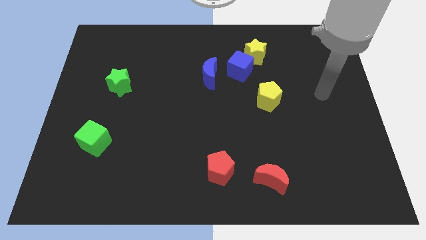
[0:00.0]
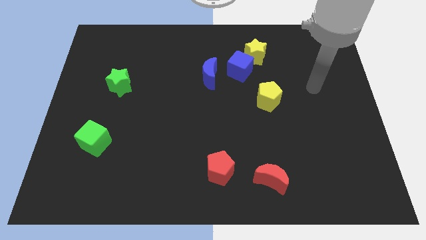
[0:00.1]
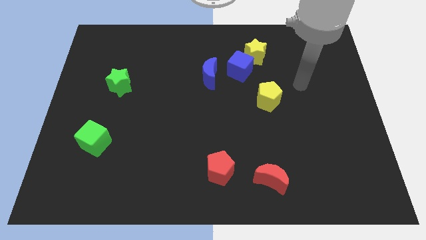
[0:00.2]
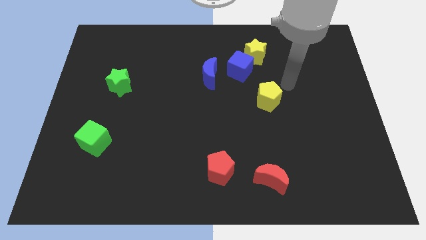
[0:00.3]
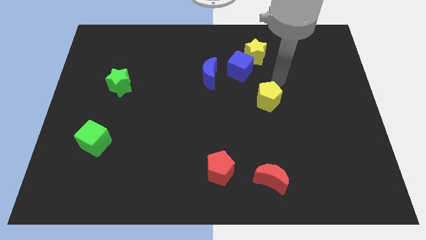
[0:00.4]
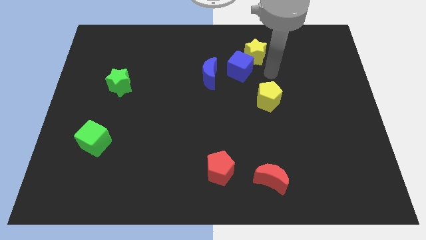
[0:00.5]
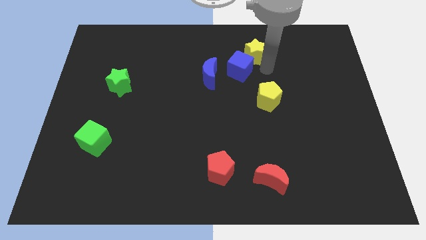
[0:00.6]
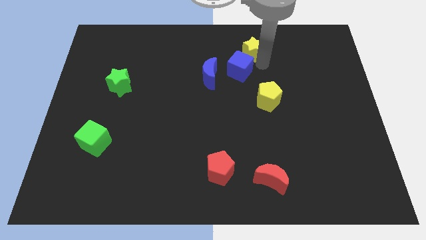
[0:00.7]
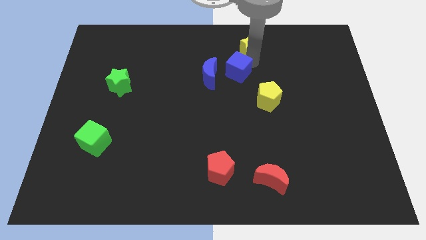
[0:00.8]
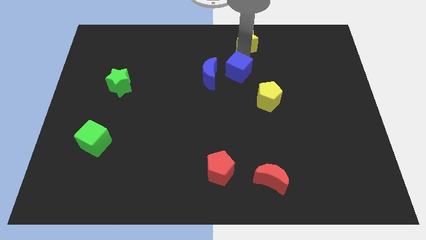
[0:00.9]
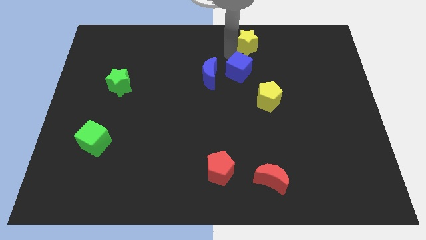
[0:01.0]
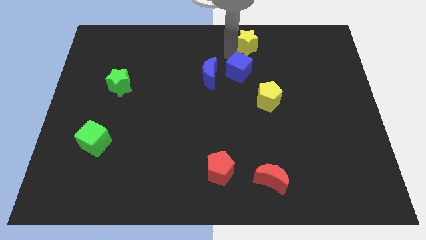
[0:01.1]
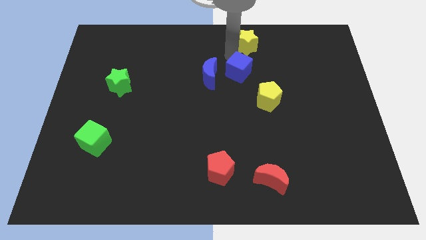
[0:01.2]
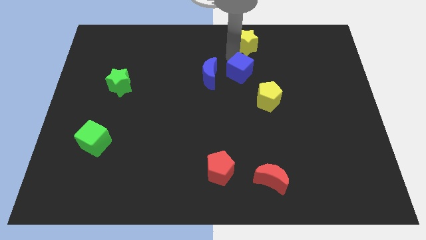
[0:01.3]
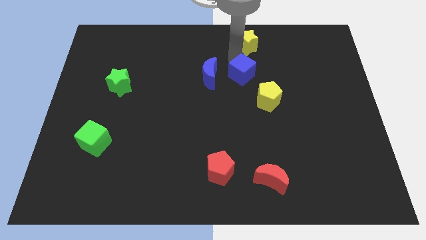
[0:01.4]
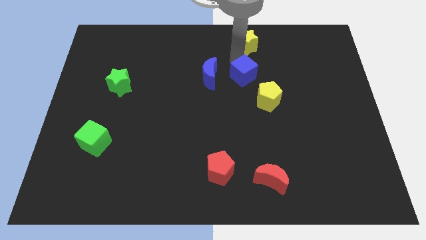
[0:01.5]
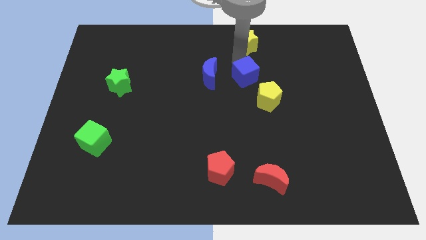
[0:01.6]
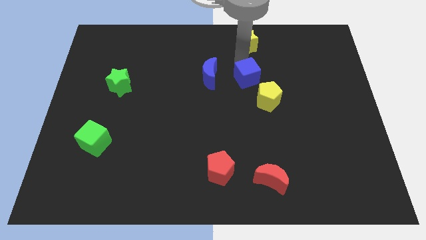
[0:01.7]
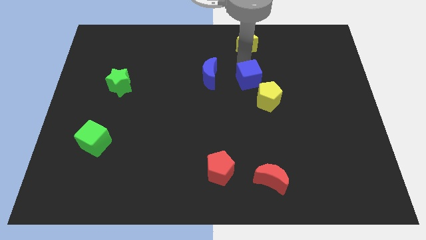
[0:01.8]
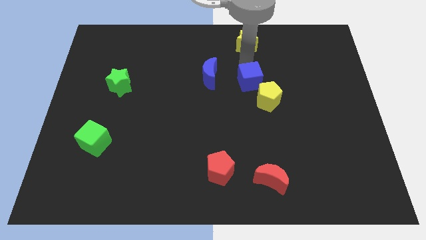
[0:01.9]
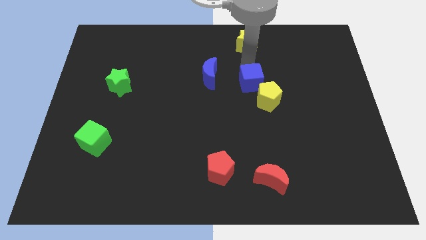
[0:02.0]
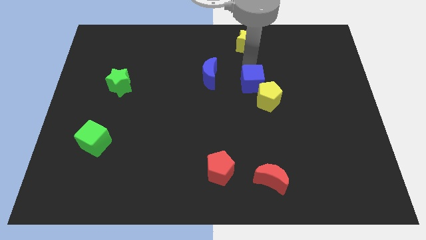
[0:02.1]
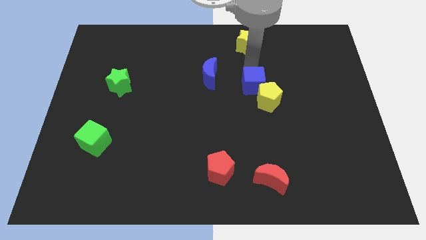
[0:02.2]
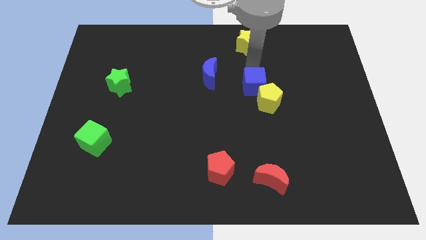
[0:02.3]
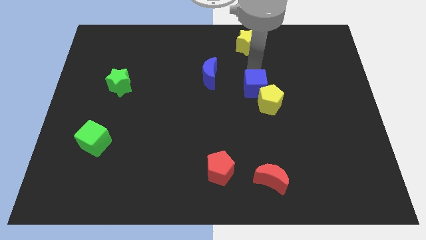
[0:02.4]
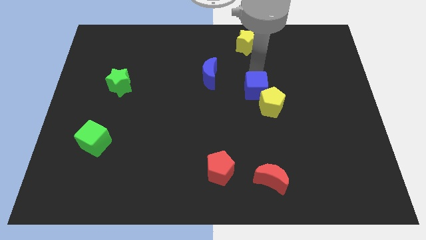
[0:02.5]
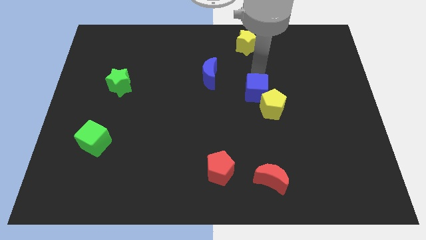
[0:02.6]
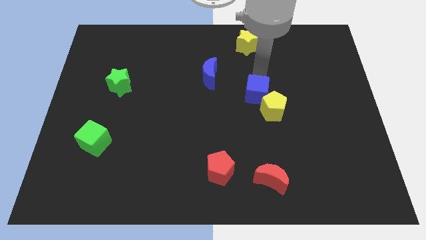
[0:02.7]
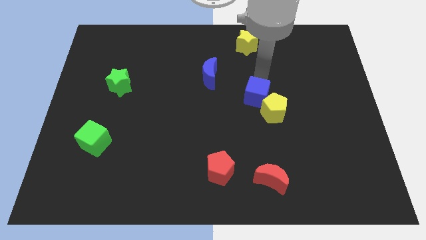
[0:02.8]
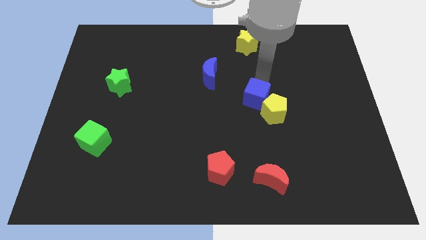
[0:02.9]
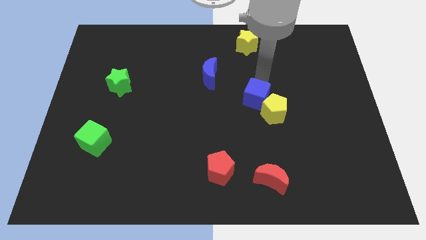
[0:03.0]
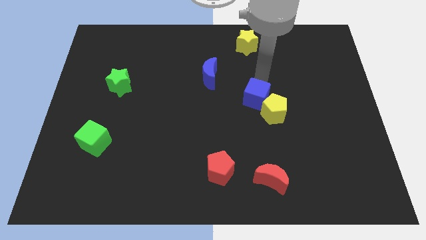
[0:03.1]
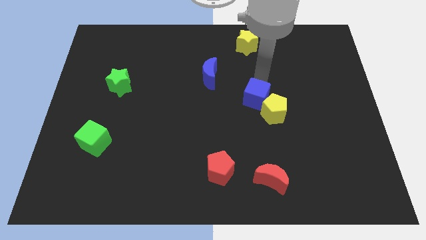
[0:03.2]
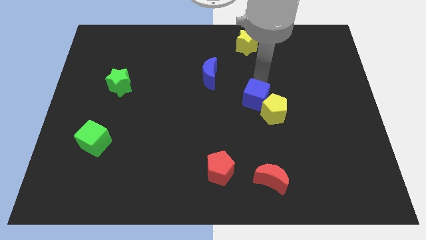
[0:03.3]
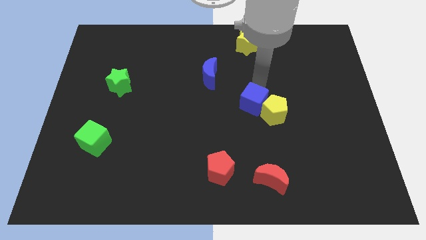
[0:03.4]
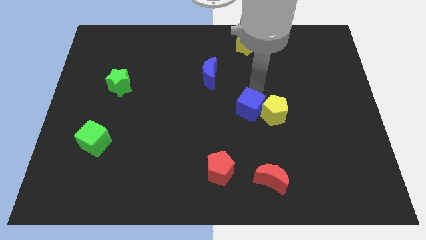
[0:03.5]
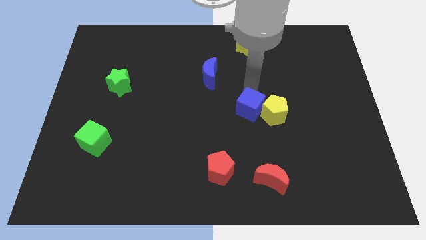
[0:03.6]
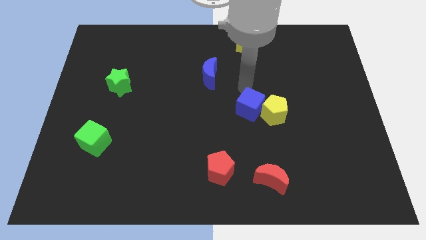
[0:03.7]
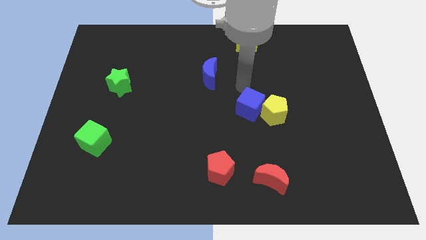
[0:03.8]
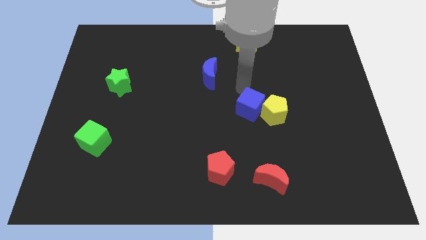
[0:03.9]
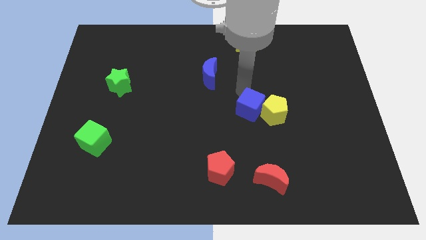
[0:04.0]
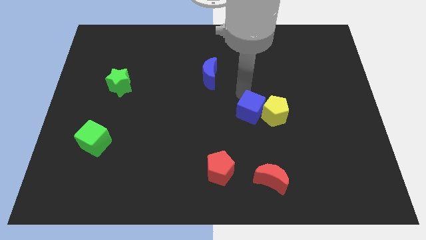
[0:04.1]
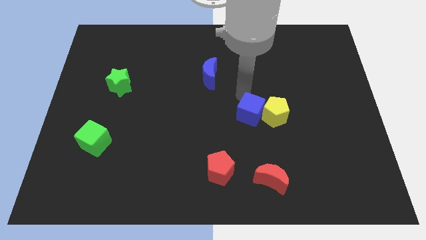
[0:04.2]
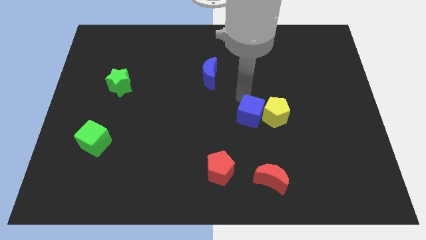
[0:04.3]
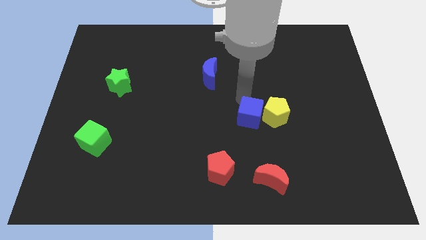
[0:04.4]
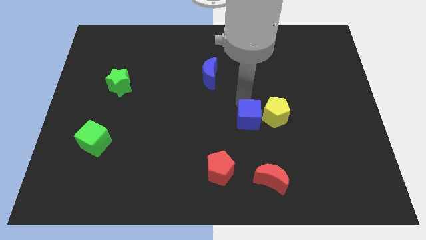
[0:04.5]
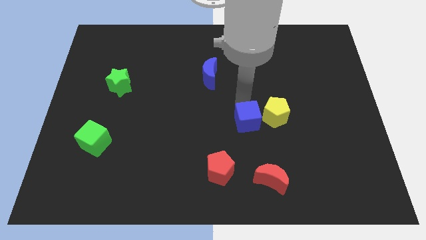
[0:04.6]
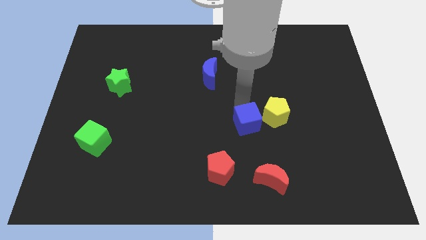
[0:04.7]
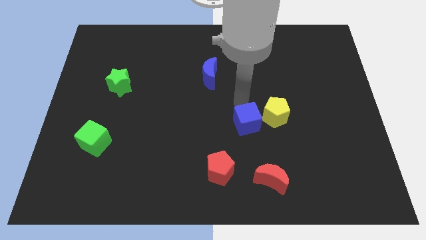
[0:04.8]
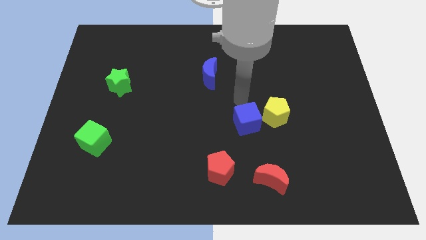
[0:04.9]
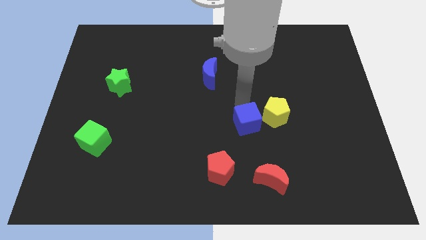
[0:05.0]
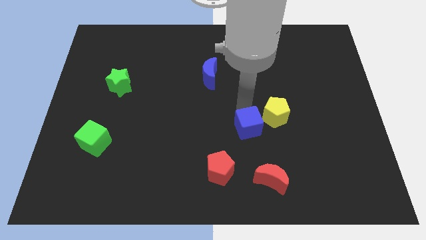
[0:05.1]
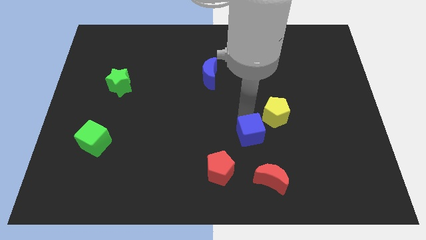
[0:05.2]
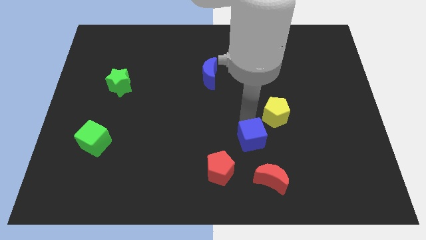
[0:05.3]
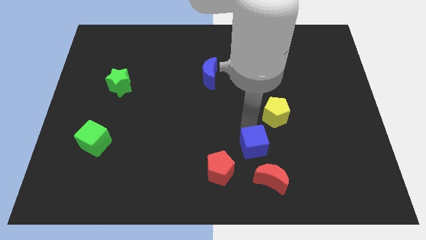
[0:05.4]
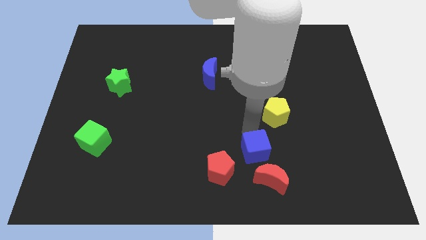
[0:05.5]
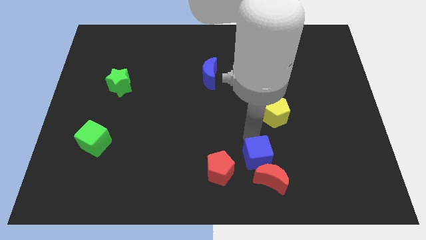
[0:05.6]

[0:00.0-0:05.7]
push the blue cube next to the red moon

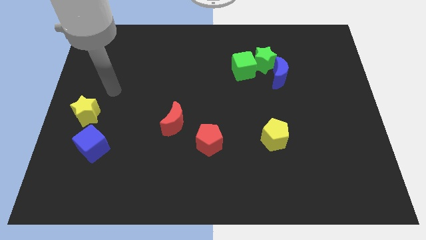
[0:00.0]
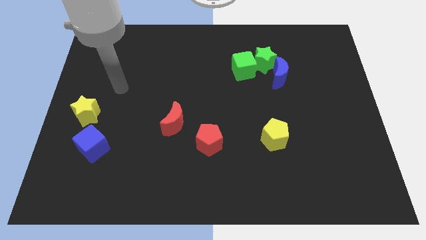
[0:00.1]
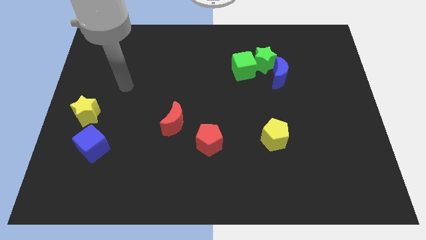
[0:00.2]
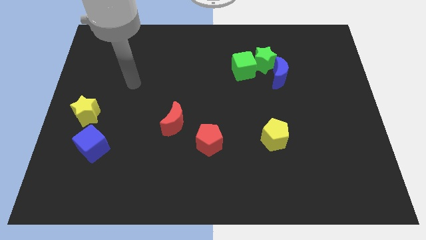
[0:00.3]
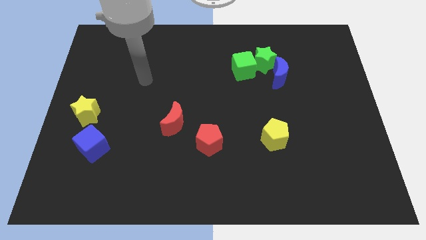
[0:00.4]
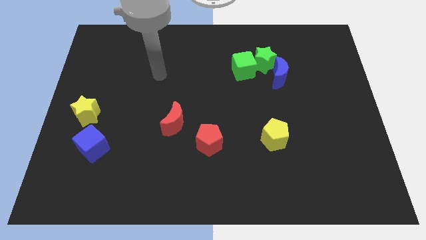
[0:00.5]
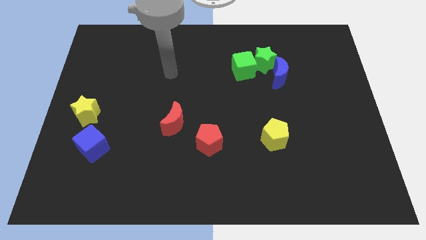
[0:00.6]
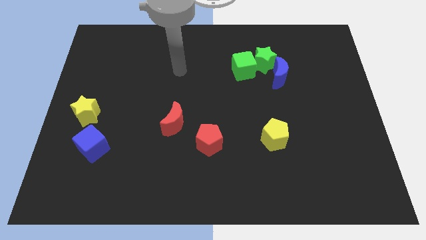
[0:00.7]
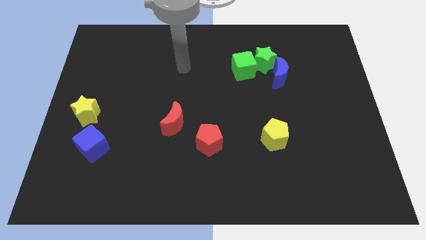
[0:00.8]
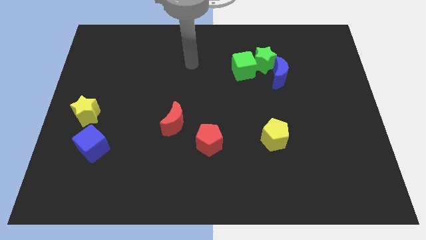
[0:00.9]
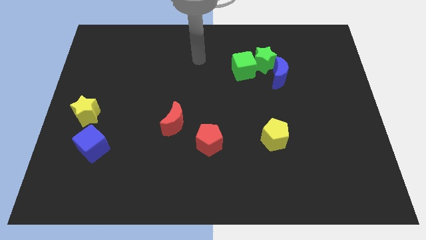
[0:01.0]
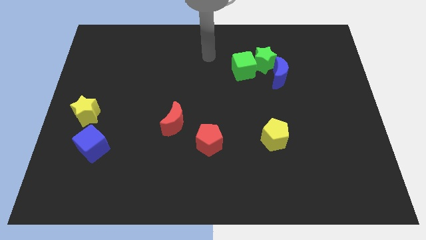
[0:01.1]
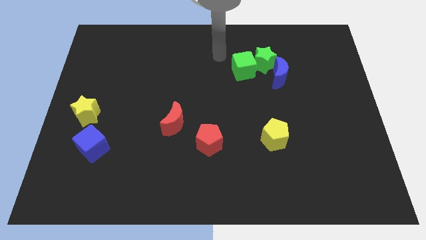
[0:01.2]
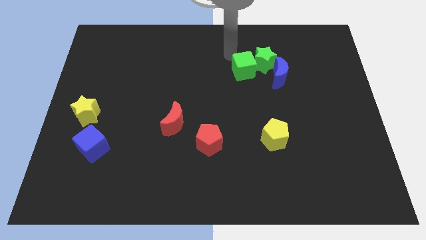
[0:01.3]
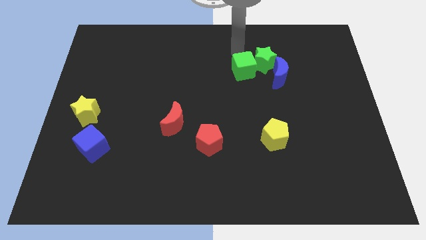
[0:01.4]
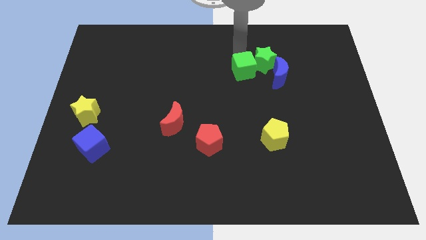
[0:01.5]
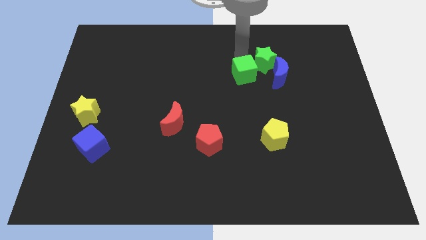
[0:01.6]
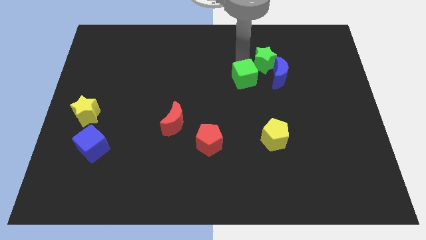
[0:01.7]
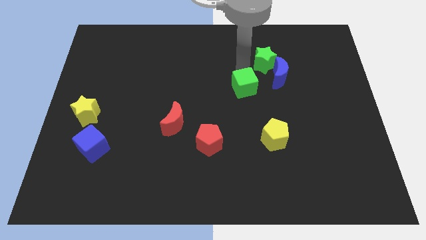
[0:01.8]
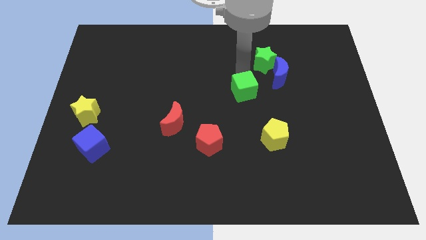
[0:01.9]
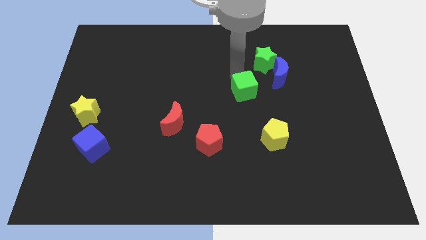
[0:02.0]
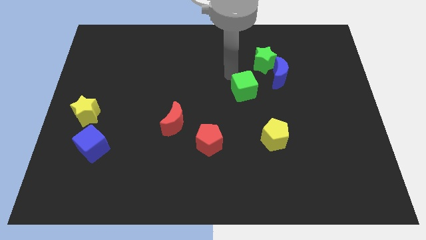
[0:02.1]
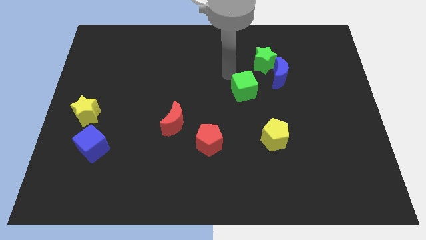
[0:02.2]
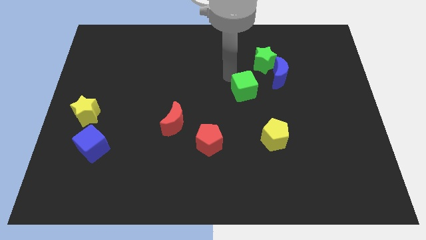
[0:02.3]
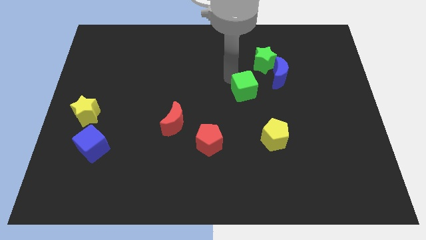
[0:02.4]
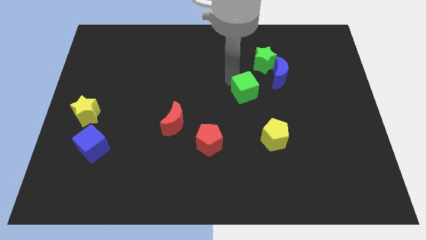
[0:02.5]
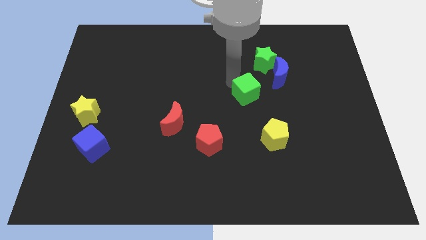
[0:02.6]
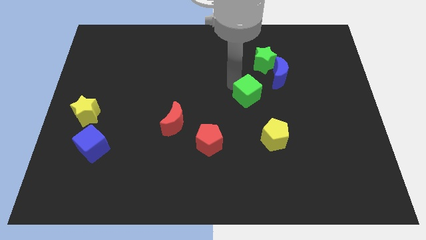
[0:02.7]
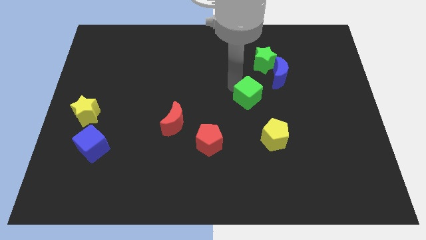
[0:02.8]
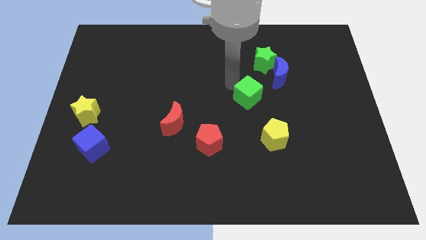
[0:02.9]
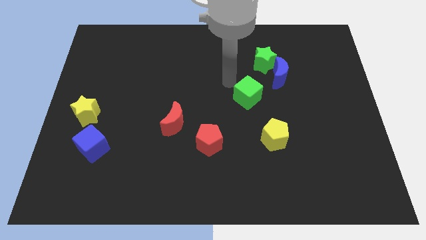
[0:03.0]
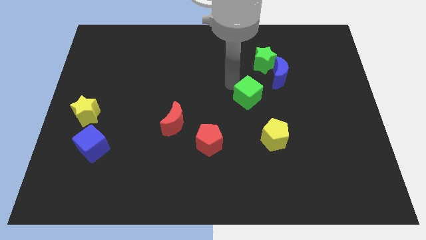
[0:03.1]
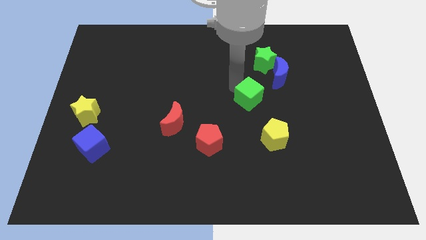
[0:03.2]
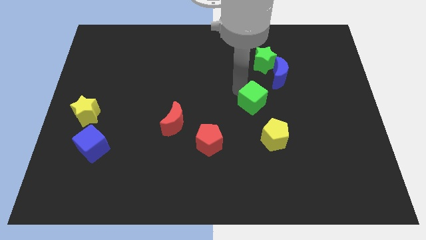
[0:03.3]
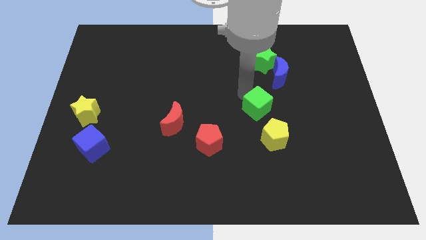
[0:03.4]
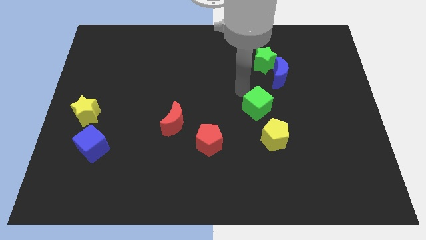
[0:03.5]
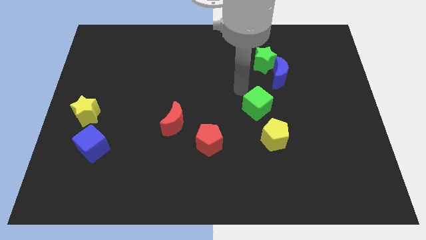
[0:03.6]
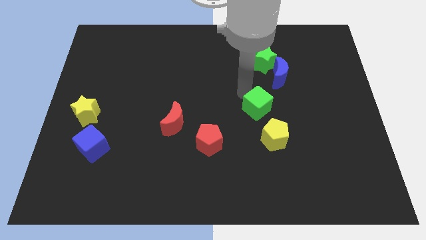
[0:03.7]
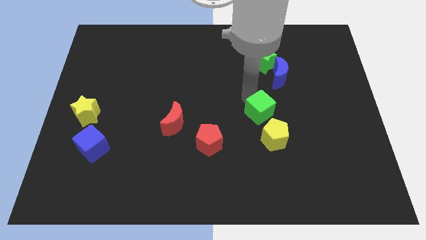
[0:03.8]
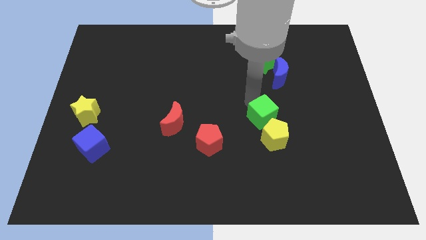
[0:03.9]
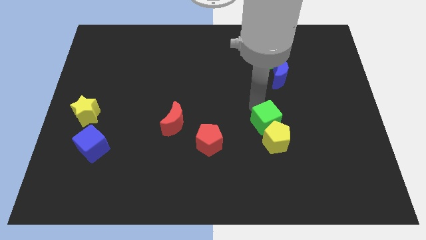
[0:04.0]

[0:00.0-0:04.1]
slide the green cube next to the yellow pentagon
